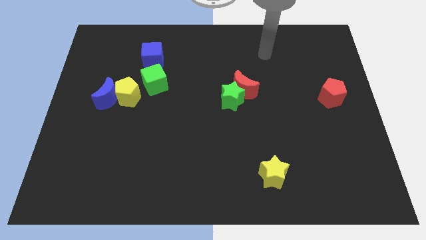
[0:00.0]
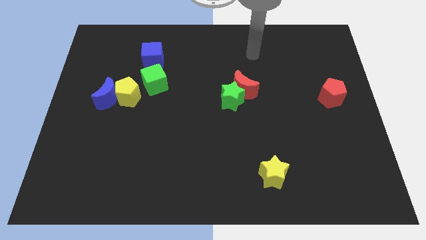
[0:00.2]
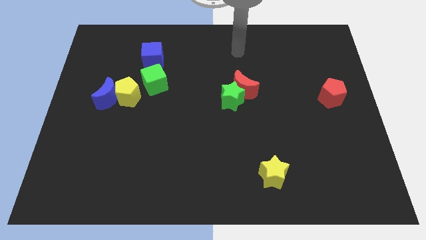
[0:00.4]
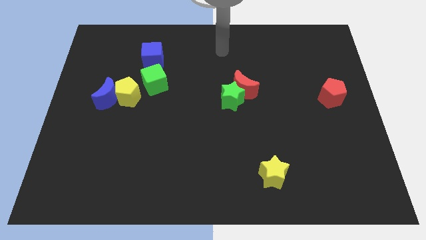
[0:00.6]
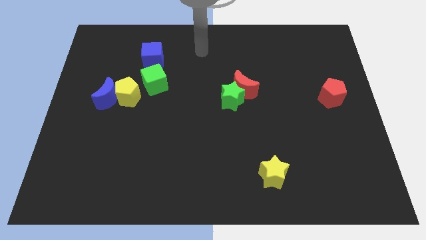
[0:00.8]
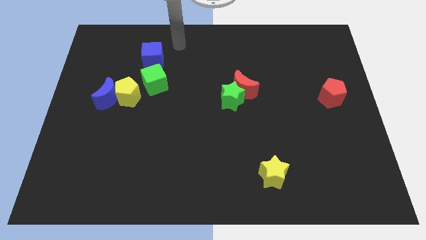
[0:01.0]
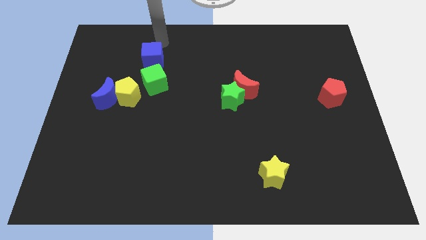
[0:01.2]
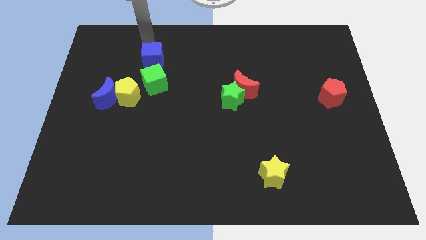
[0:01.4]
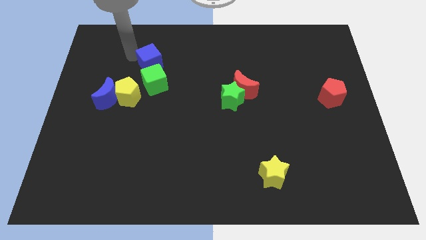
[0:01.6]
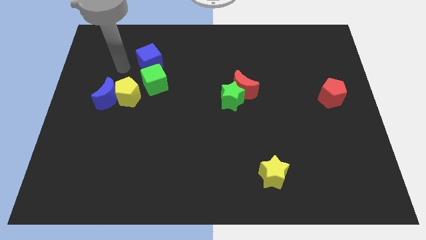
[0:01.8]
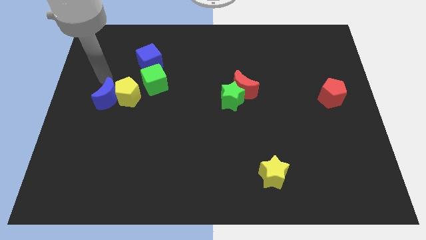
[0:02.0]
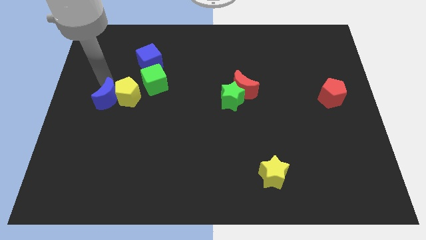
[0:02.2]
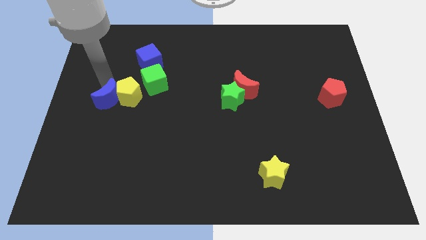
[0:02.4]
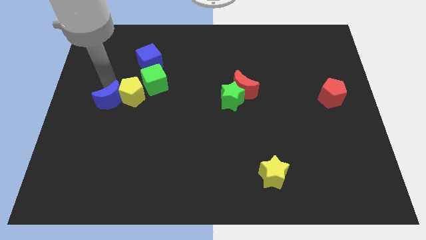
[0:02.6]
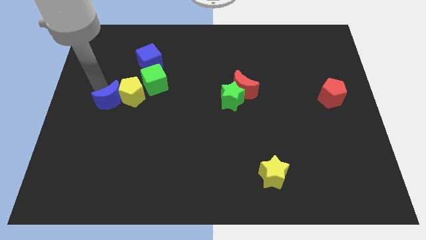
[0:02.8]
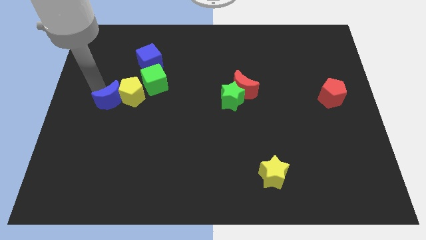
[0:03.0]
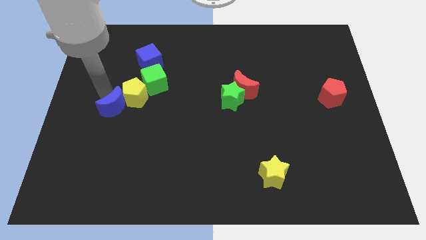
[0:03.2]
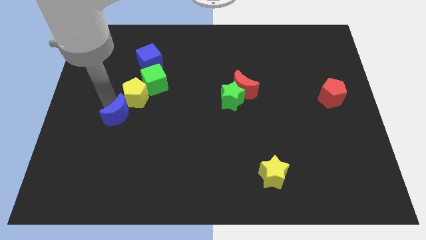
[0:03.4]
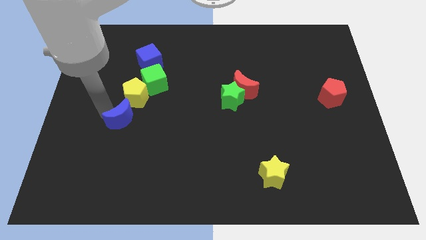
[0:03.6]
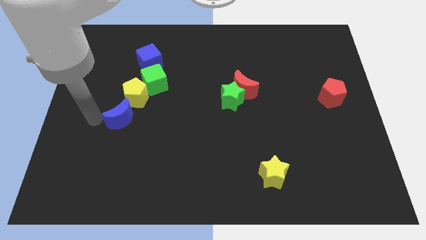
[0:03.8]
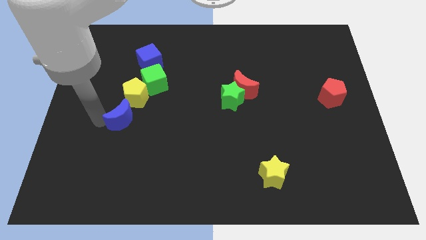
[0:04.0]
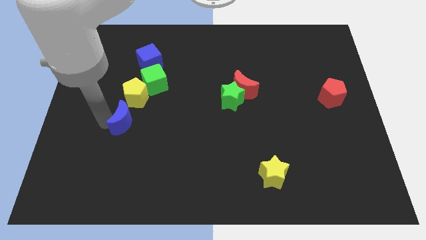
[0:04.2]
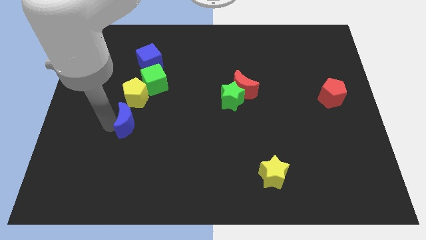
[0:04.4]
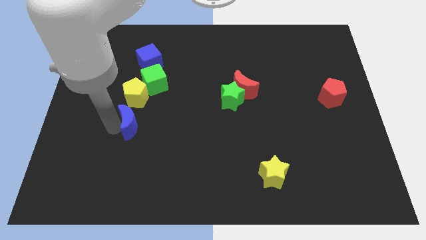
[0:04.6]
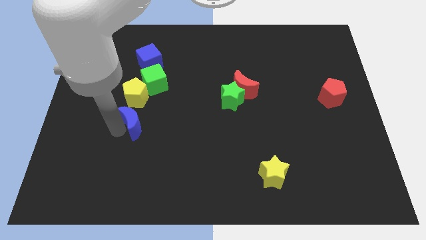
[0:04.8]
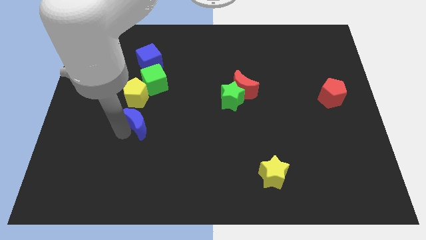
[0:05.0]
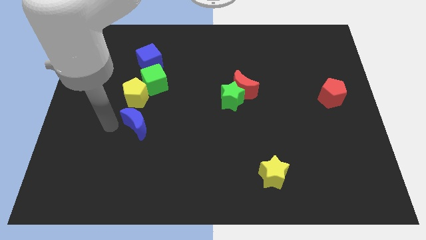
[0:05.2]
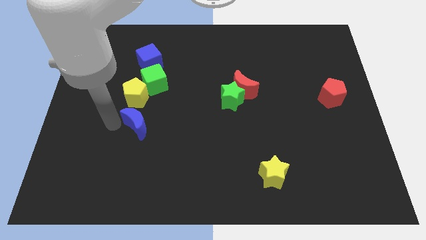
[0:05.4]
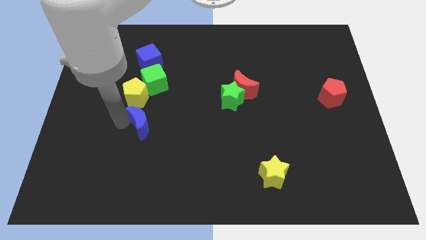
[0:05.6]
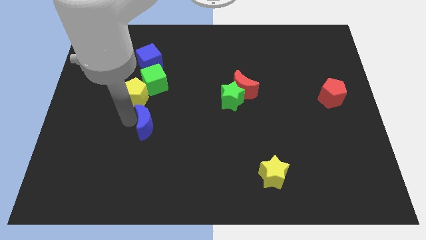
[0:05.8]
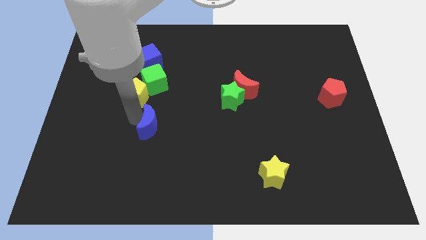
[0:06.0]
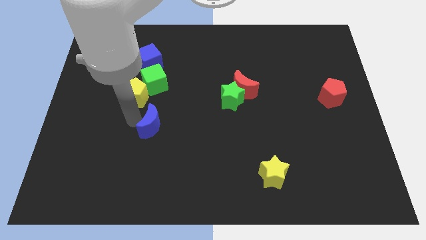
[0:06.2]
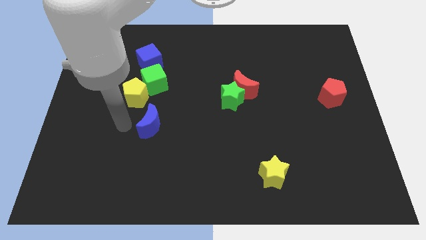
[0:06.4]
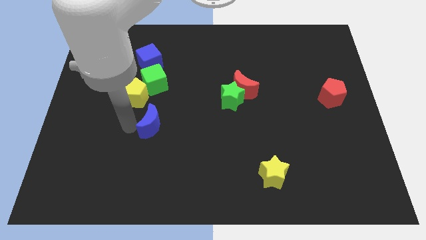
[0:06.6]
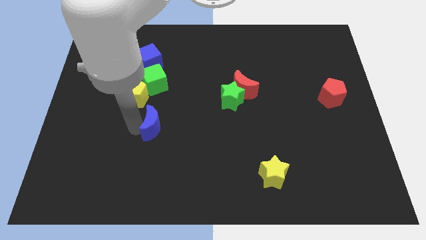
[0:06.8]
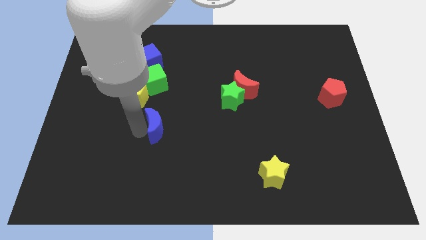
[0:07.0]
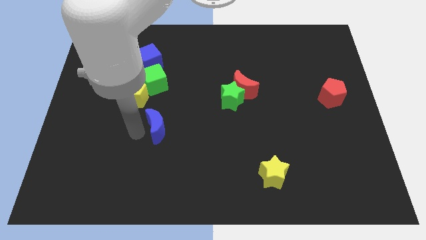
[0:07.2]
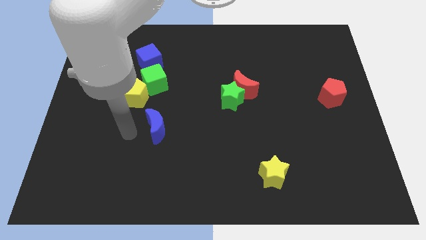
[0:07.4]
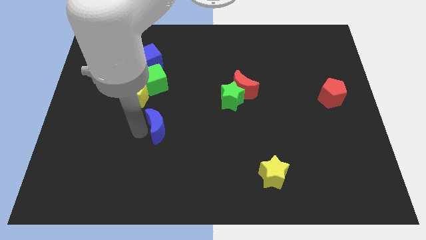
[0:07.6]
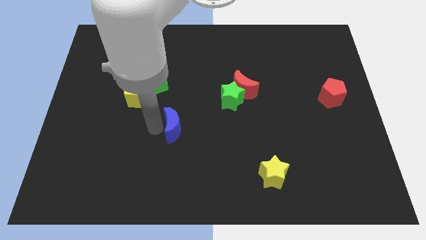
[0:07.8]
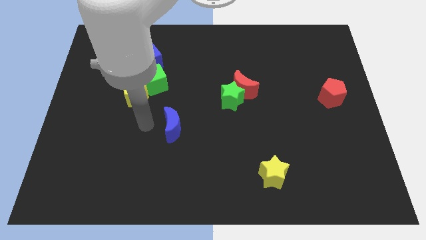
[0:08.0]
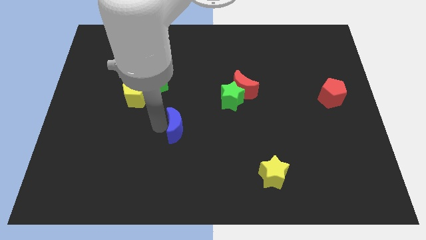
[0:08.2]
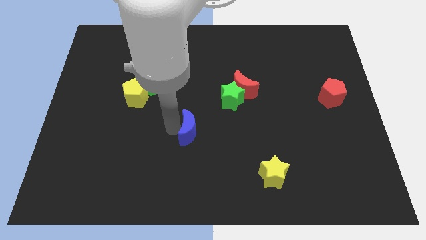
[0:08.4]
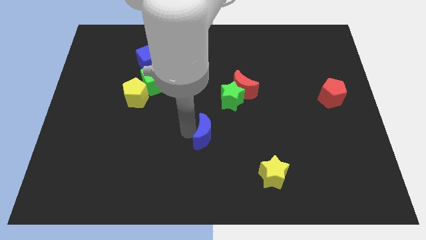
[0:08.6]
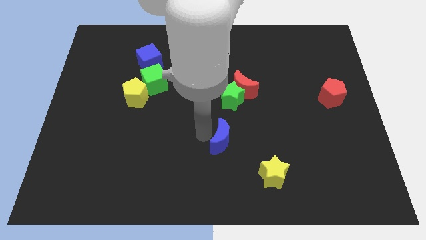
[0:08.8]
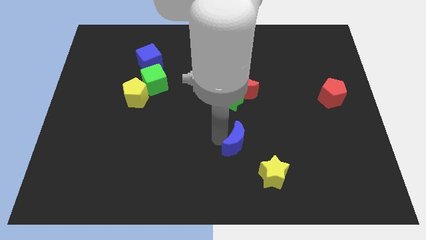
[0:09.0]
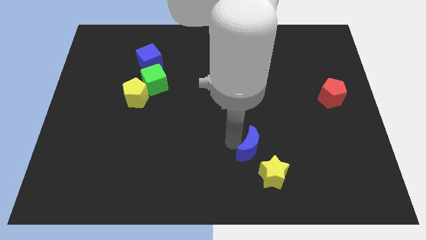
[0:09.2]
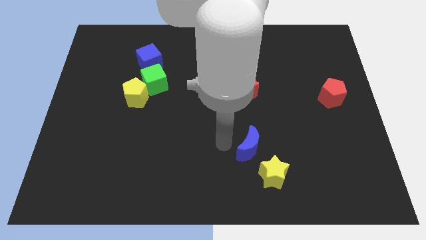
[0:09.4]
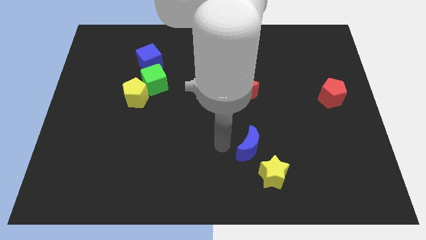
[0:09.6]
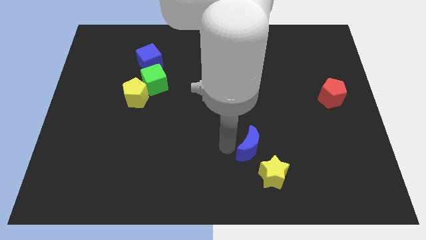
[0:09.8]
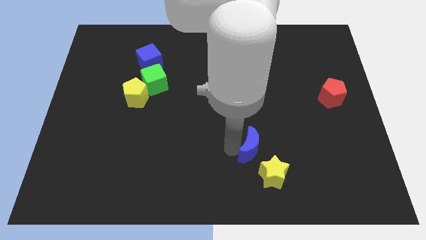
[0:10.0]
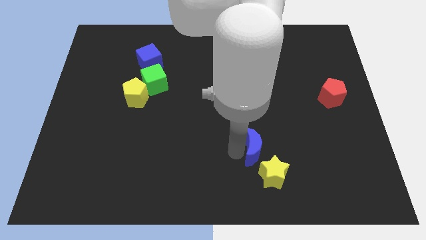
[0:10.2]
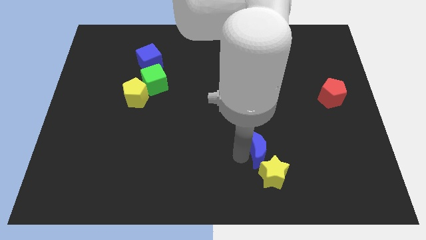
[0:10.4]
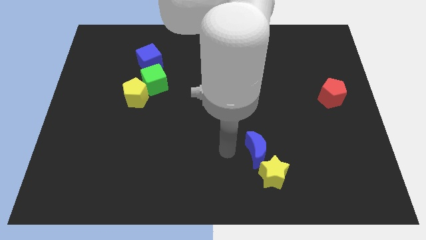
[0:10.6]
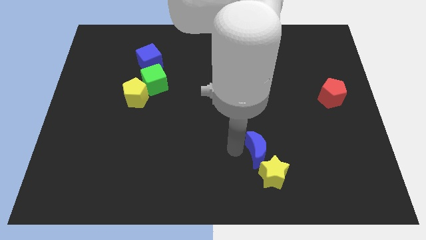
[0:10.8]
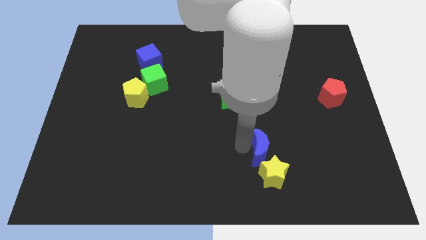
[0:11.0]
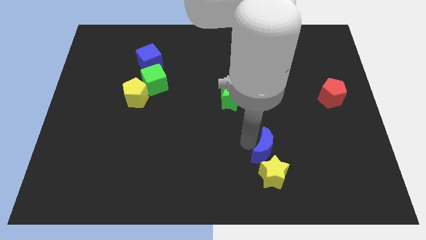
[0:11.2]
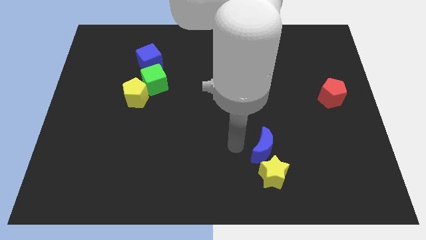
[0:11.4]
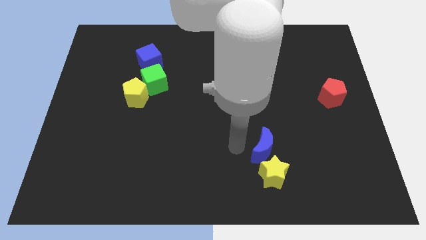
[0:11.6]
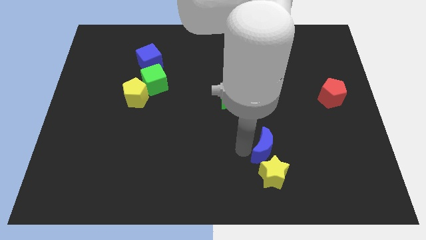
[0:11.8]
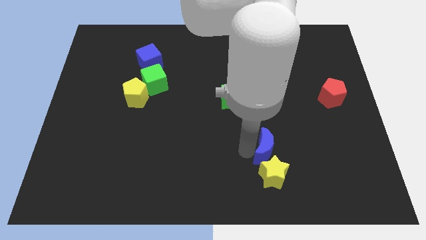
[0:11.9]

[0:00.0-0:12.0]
slide the blue moon to the top right of the yellow star
